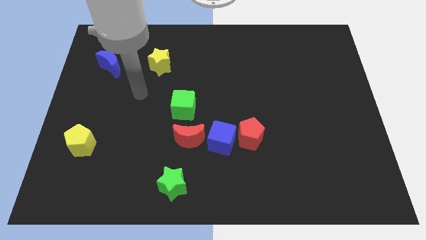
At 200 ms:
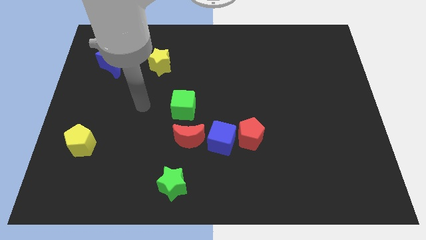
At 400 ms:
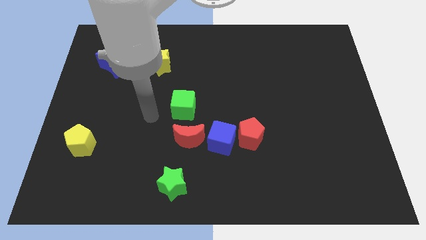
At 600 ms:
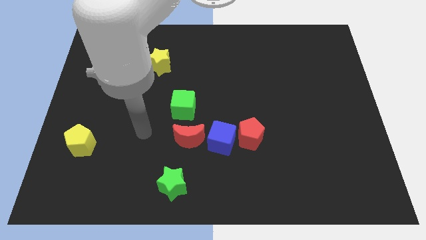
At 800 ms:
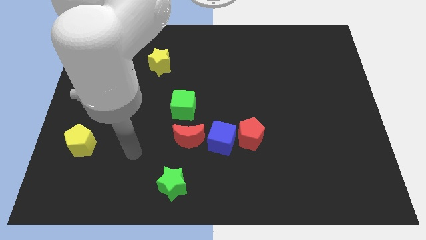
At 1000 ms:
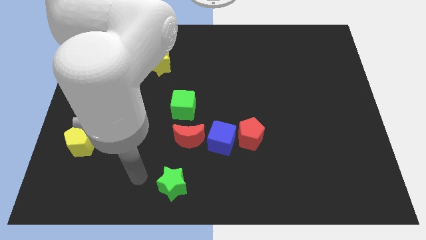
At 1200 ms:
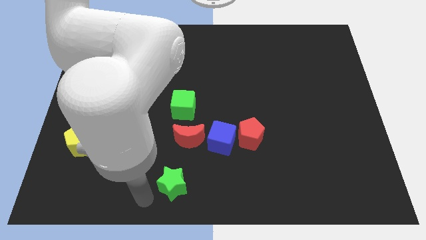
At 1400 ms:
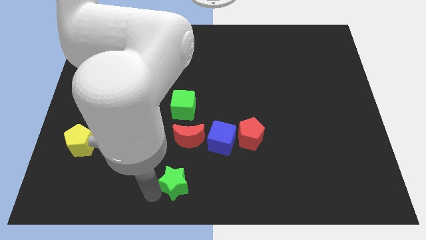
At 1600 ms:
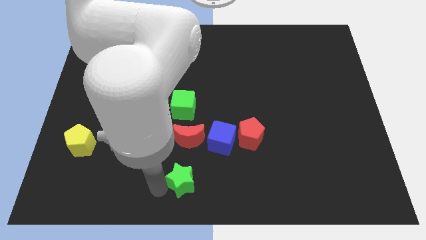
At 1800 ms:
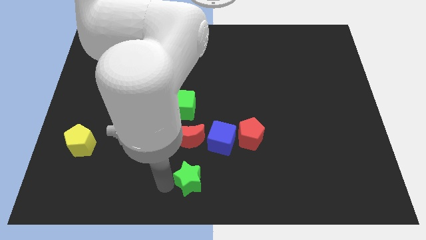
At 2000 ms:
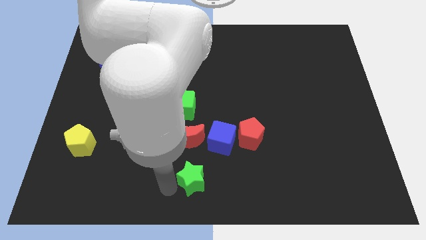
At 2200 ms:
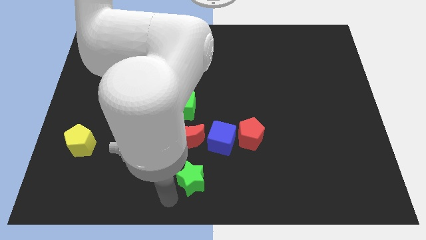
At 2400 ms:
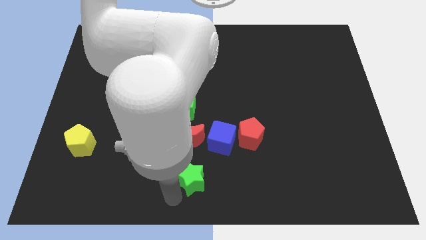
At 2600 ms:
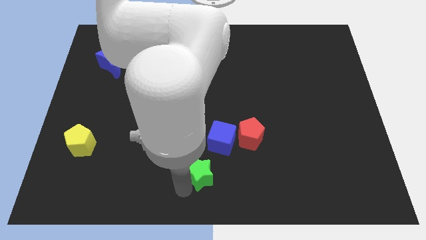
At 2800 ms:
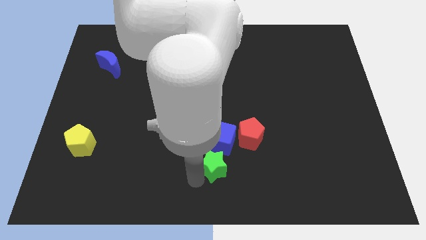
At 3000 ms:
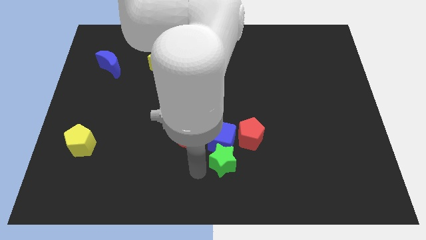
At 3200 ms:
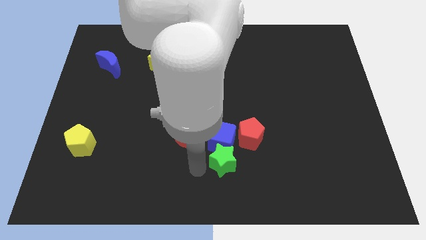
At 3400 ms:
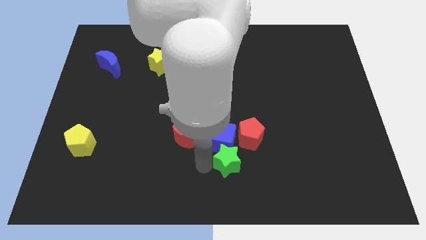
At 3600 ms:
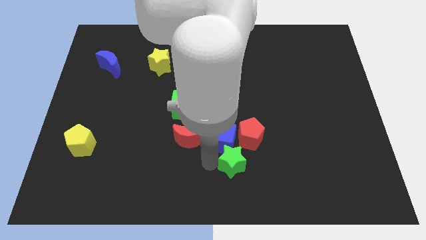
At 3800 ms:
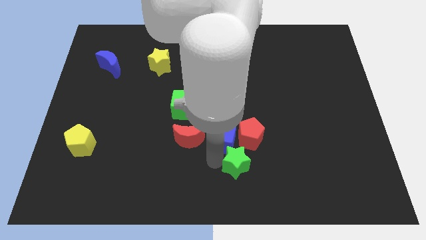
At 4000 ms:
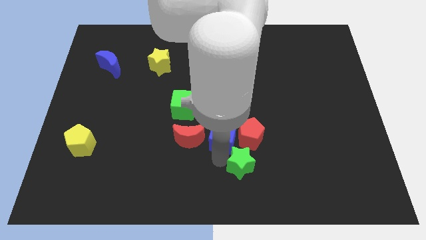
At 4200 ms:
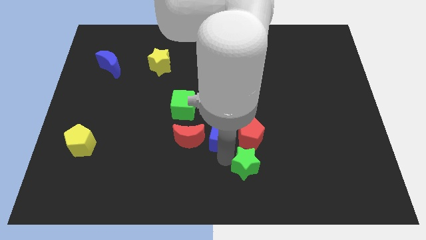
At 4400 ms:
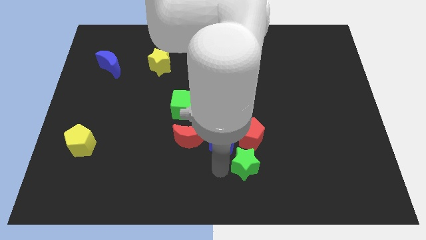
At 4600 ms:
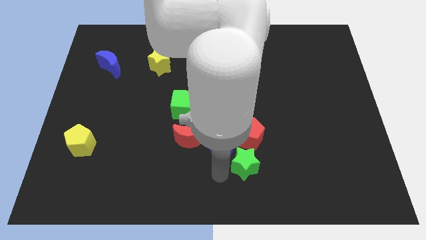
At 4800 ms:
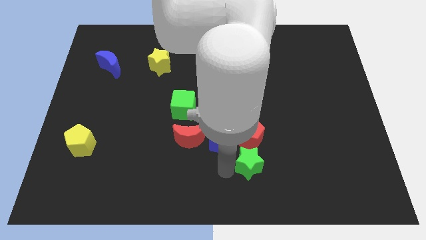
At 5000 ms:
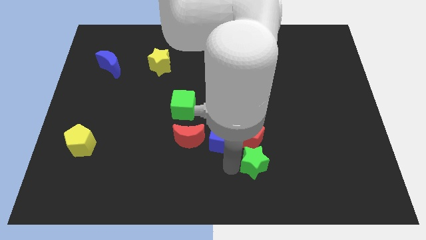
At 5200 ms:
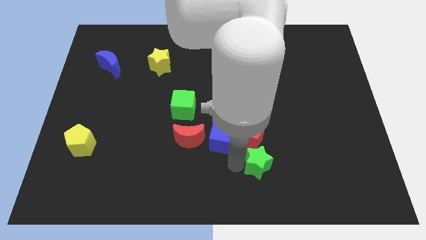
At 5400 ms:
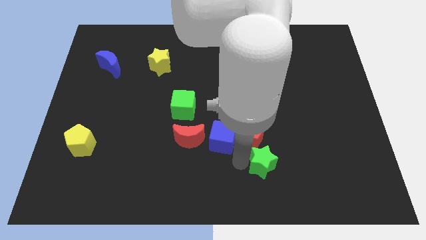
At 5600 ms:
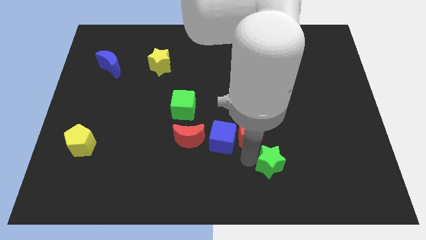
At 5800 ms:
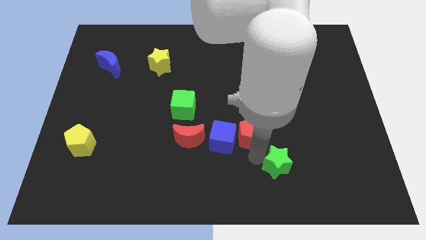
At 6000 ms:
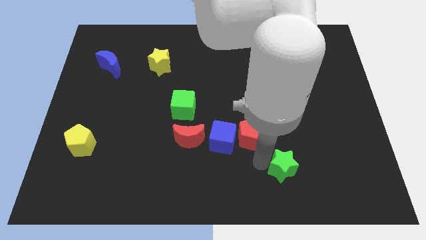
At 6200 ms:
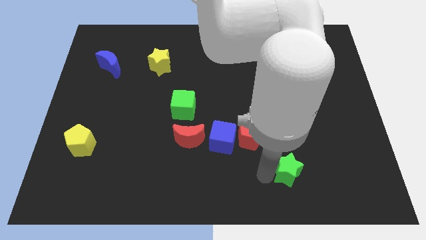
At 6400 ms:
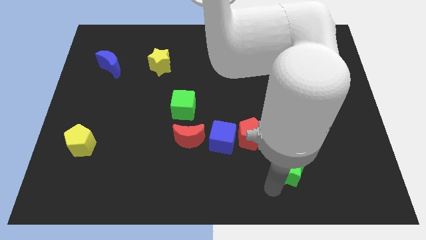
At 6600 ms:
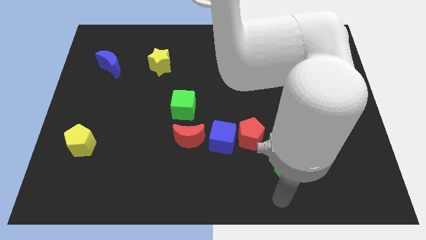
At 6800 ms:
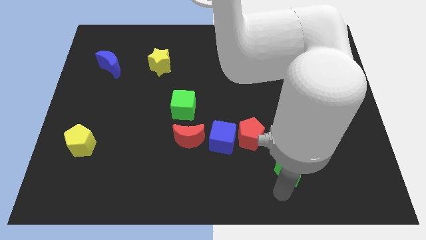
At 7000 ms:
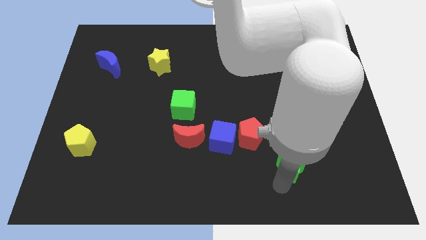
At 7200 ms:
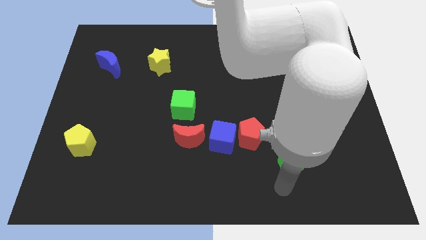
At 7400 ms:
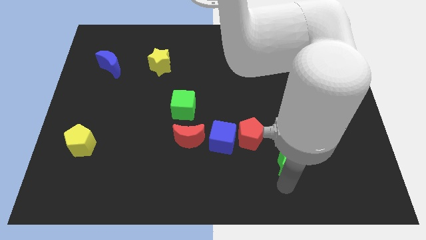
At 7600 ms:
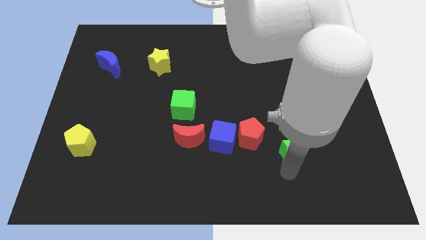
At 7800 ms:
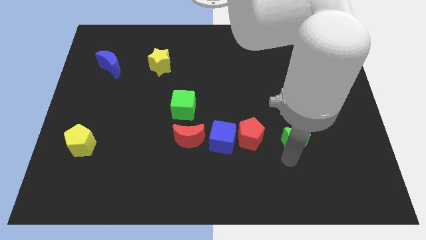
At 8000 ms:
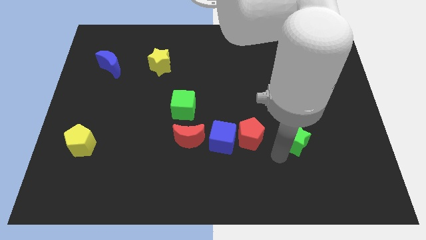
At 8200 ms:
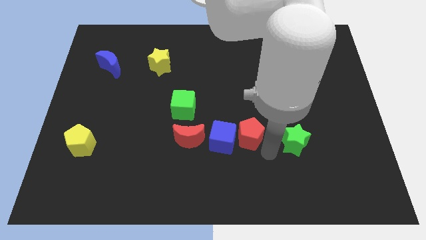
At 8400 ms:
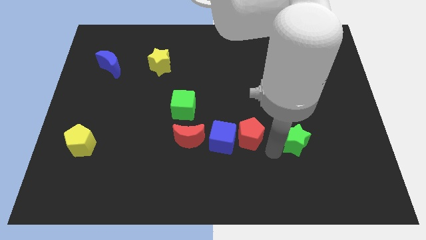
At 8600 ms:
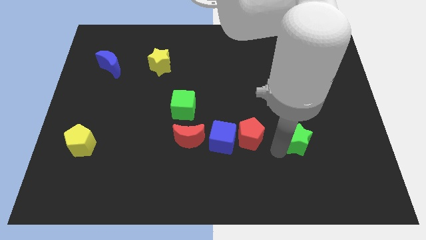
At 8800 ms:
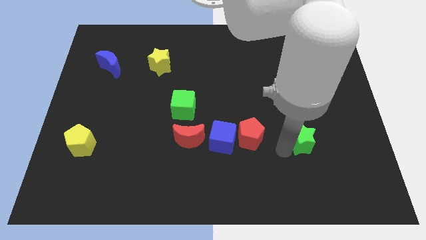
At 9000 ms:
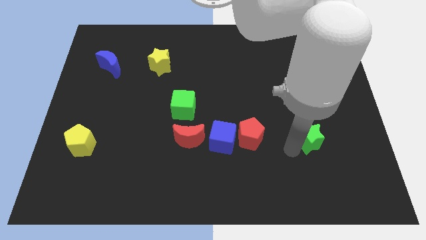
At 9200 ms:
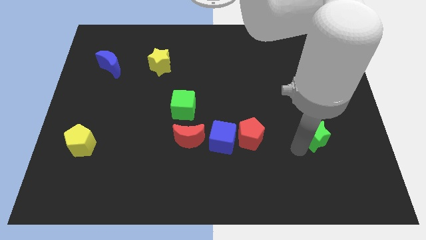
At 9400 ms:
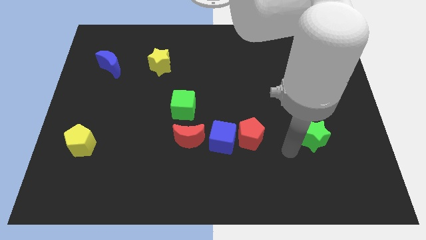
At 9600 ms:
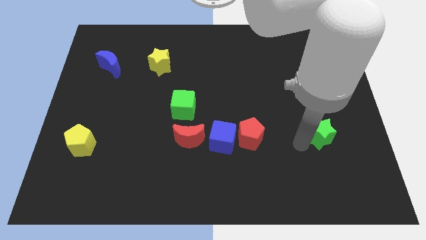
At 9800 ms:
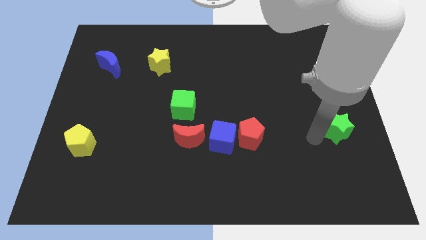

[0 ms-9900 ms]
move the green star to the right side

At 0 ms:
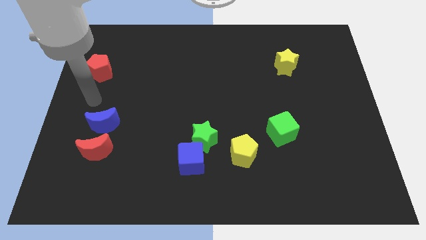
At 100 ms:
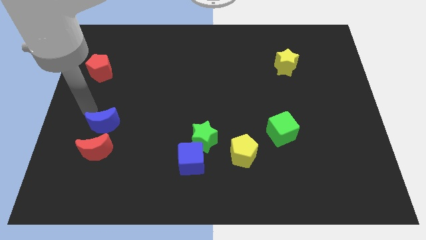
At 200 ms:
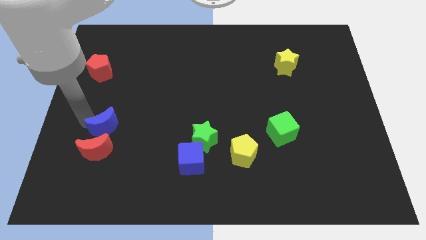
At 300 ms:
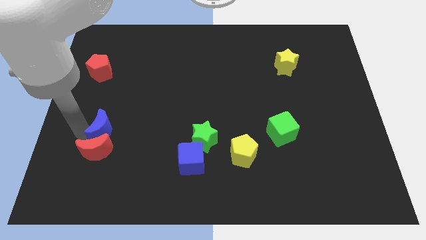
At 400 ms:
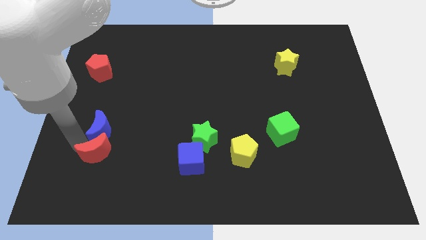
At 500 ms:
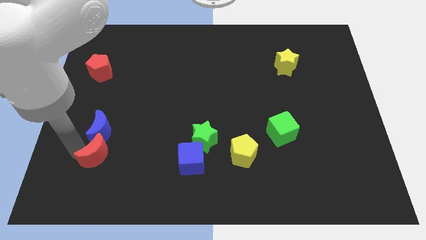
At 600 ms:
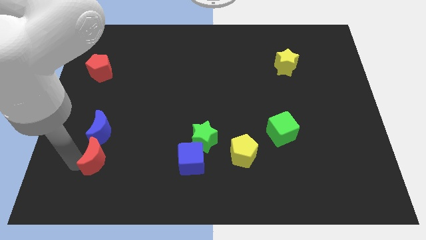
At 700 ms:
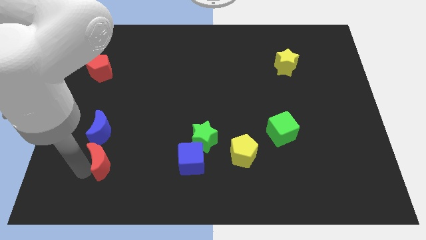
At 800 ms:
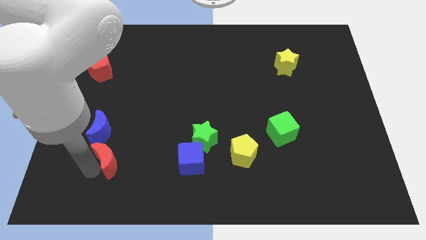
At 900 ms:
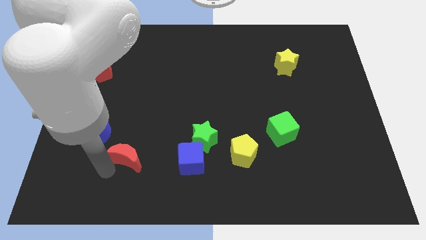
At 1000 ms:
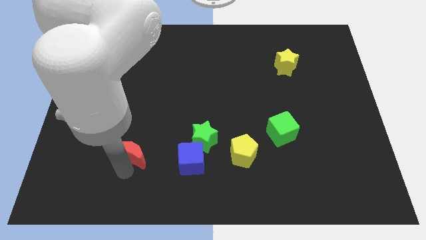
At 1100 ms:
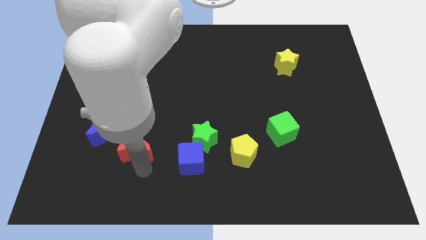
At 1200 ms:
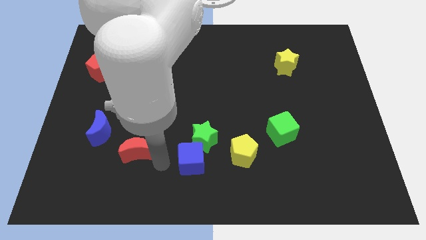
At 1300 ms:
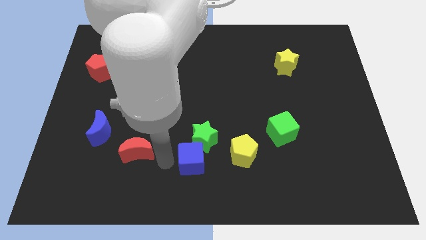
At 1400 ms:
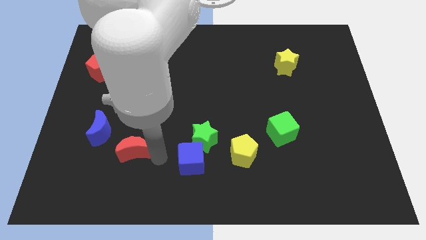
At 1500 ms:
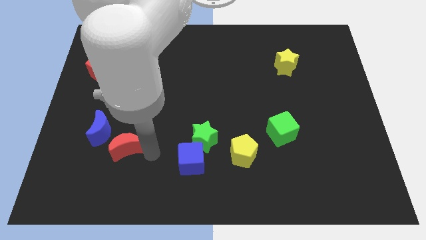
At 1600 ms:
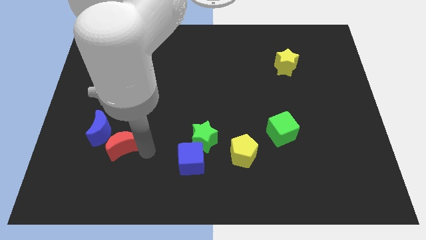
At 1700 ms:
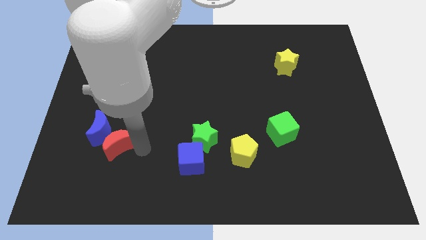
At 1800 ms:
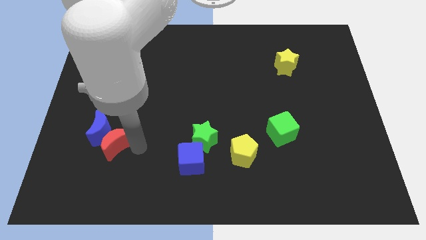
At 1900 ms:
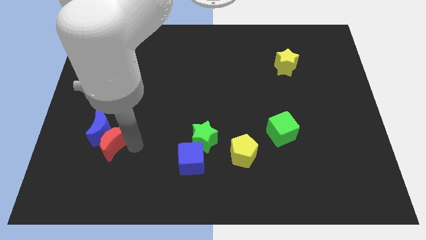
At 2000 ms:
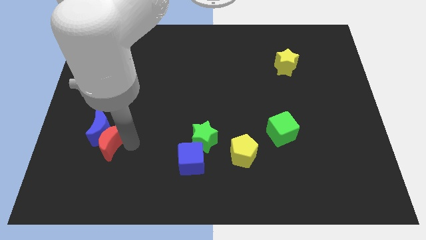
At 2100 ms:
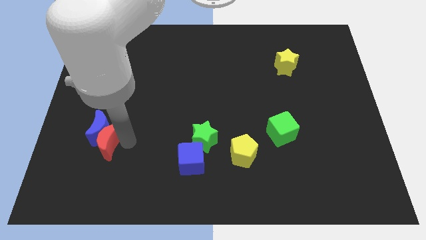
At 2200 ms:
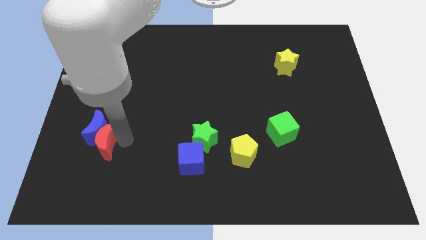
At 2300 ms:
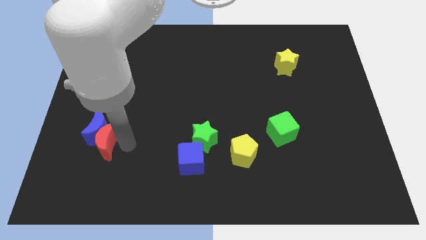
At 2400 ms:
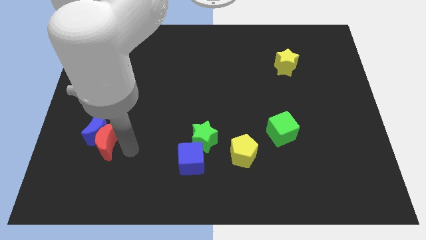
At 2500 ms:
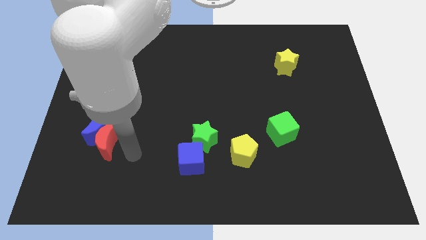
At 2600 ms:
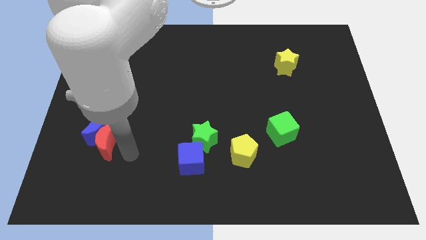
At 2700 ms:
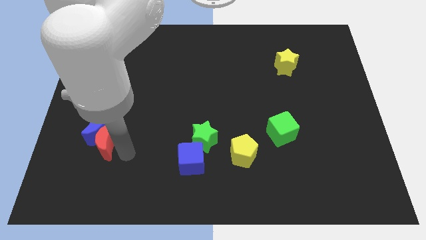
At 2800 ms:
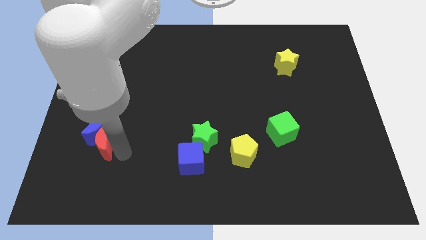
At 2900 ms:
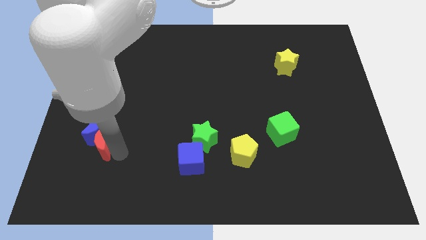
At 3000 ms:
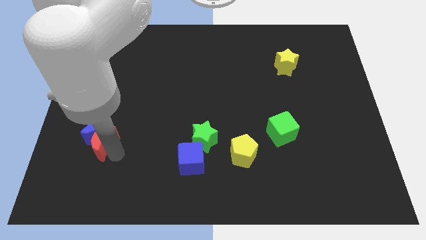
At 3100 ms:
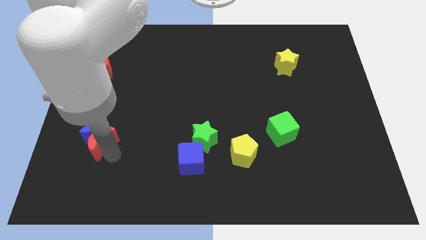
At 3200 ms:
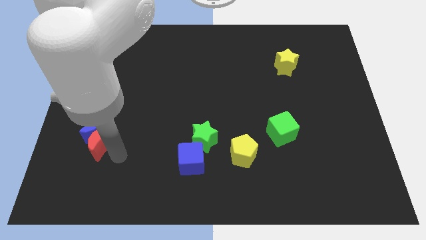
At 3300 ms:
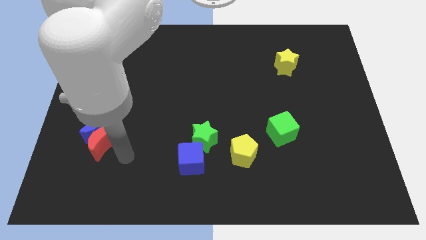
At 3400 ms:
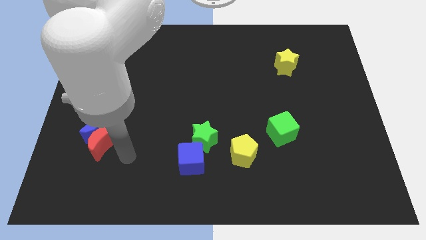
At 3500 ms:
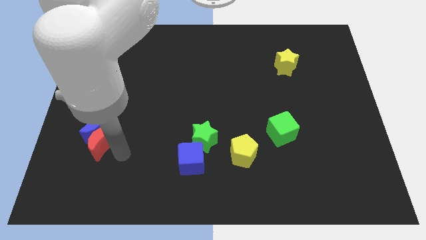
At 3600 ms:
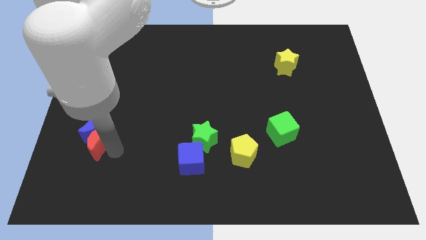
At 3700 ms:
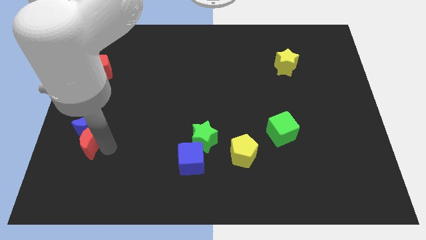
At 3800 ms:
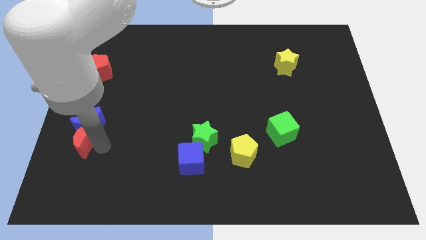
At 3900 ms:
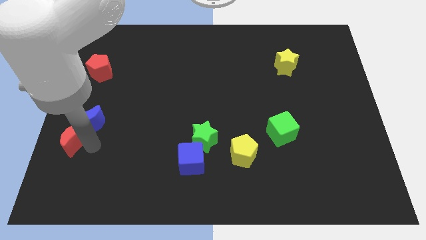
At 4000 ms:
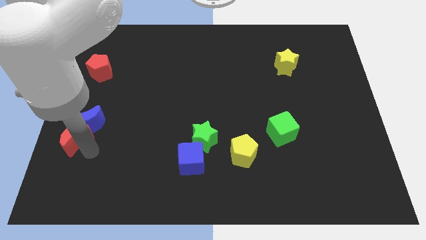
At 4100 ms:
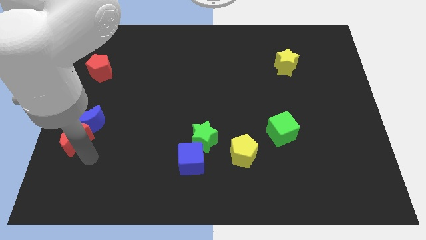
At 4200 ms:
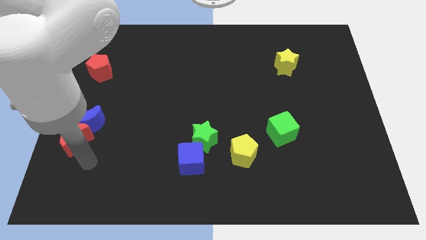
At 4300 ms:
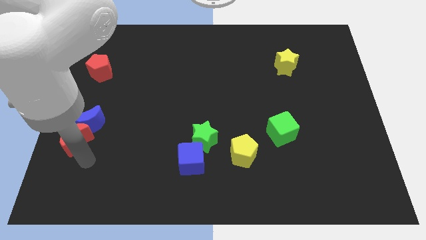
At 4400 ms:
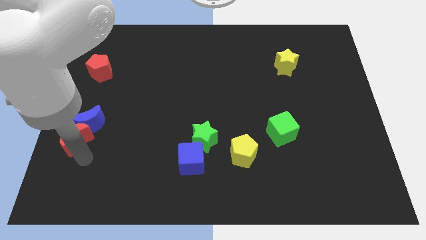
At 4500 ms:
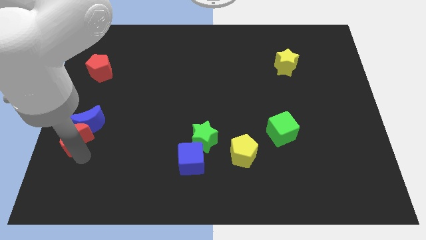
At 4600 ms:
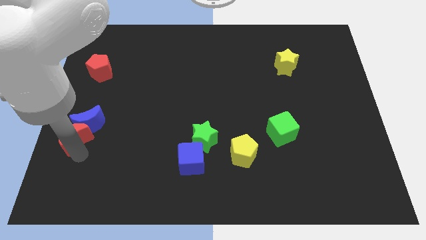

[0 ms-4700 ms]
push the red moon to the center left
